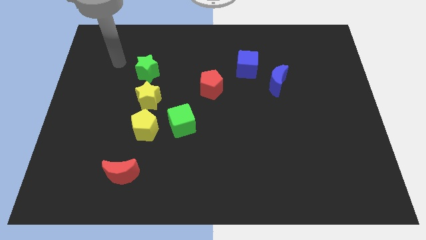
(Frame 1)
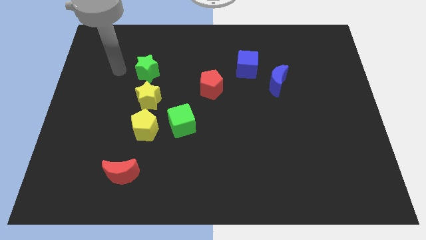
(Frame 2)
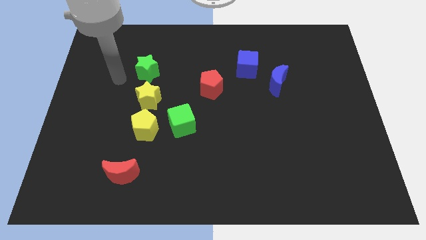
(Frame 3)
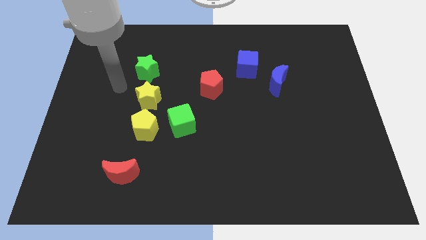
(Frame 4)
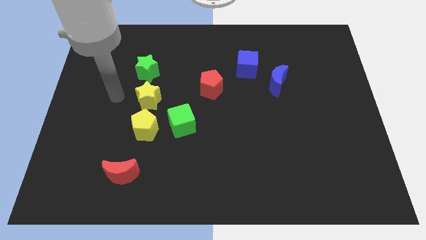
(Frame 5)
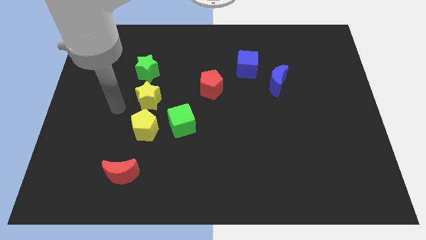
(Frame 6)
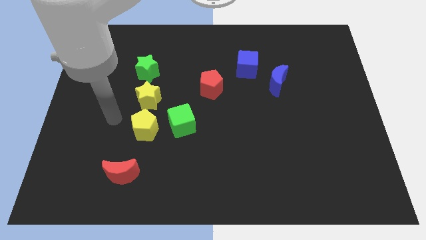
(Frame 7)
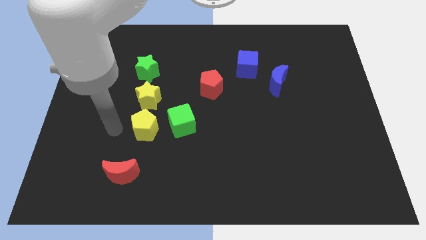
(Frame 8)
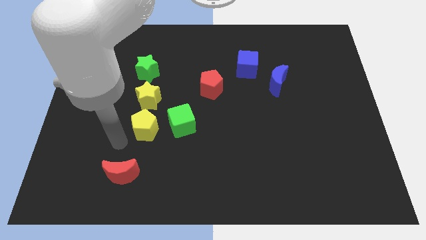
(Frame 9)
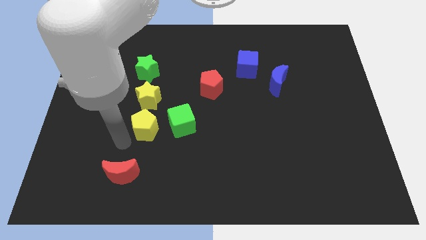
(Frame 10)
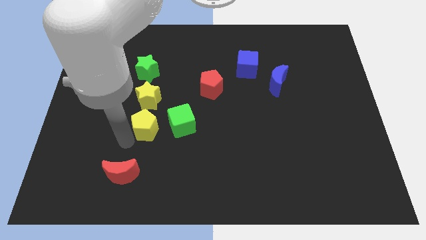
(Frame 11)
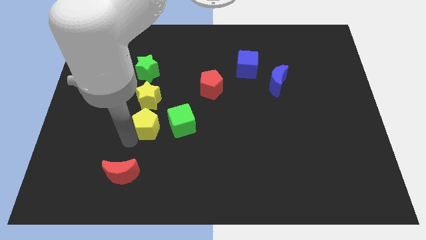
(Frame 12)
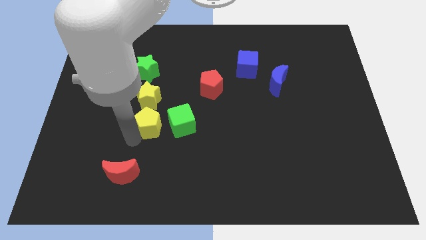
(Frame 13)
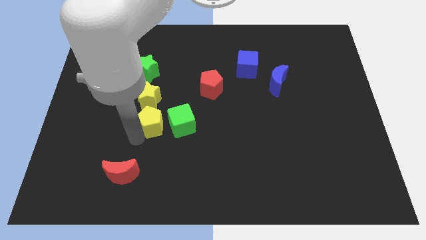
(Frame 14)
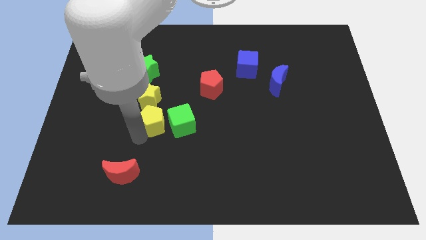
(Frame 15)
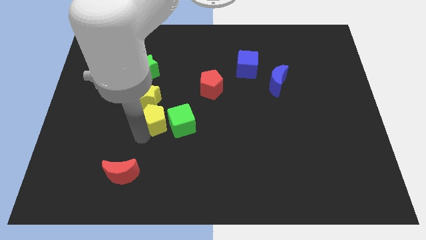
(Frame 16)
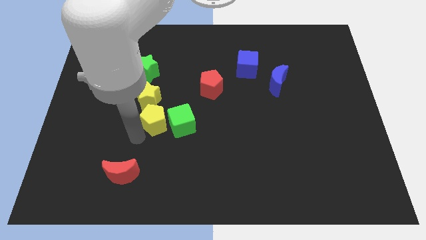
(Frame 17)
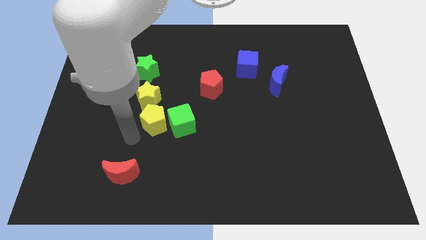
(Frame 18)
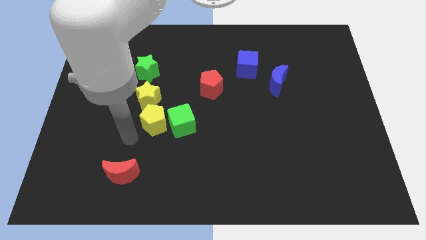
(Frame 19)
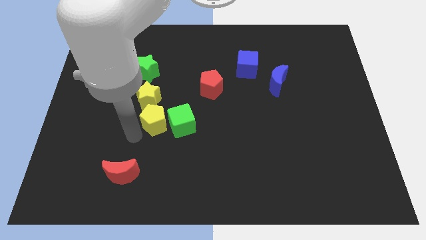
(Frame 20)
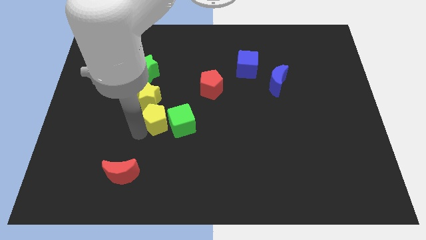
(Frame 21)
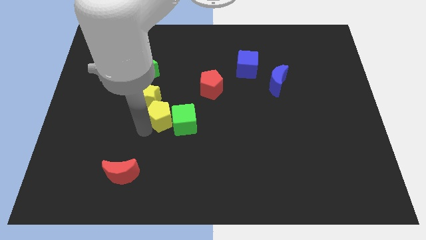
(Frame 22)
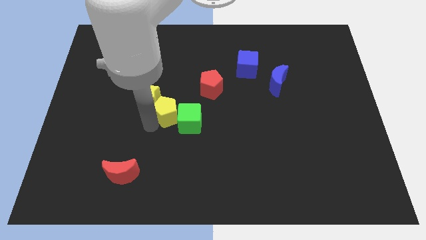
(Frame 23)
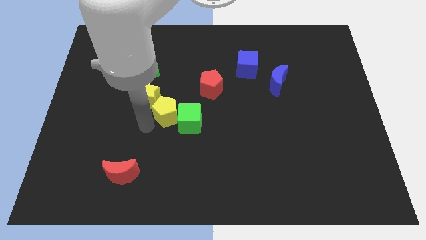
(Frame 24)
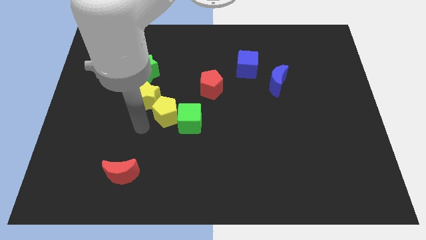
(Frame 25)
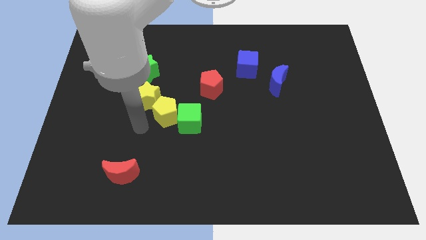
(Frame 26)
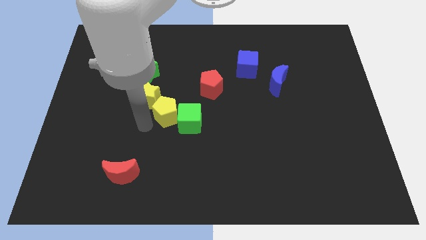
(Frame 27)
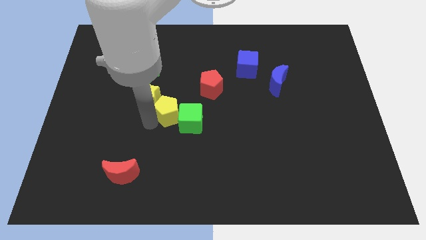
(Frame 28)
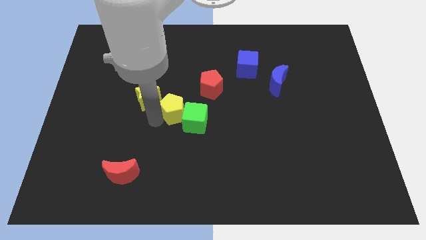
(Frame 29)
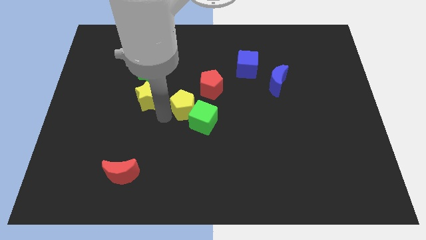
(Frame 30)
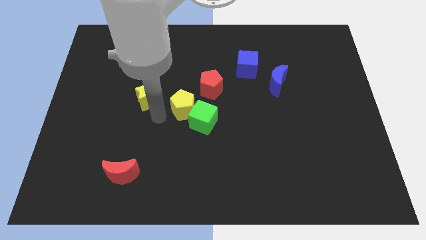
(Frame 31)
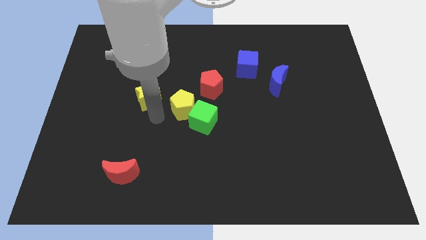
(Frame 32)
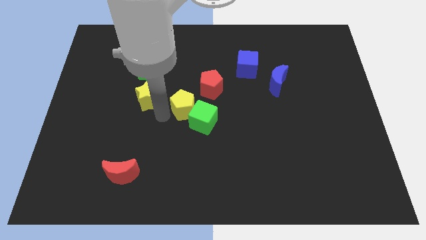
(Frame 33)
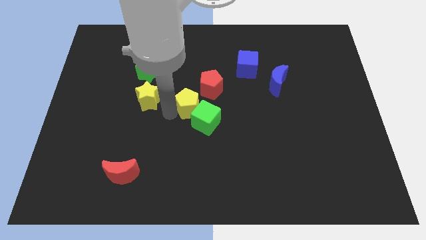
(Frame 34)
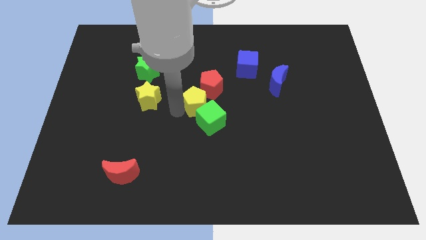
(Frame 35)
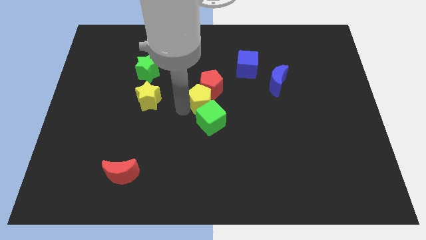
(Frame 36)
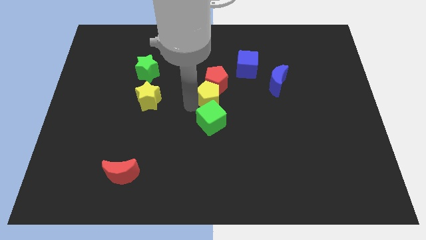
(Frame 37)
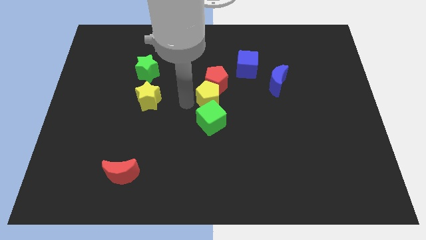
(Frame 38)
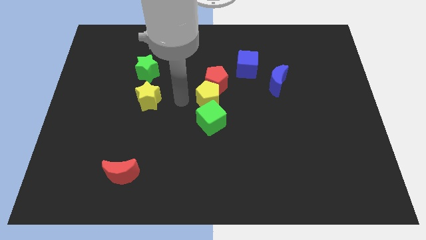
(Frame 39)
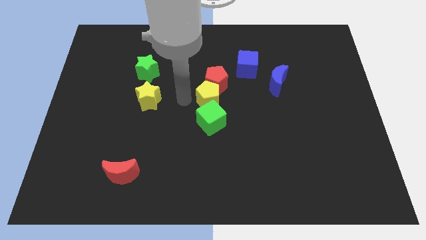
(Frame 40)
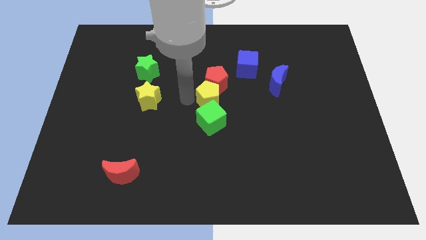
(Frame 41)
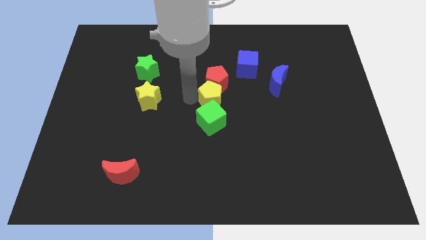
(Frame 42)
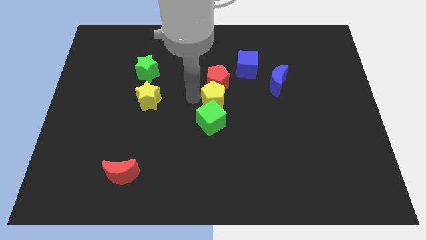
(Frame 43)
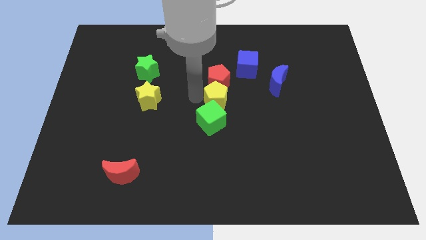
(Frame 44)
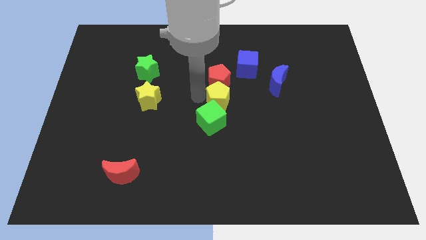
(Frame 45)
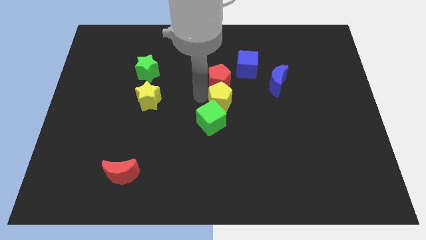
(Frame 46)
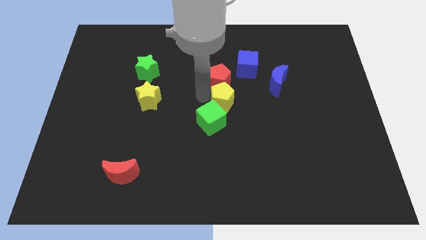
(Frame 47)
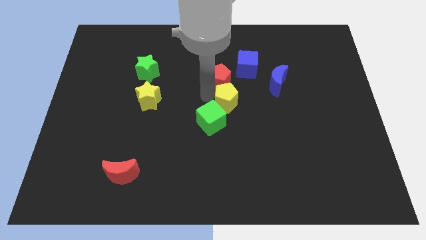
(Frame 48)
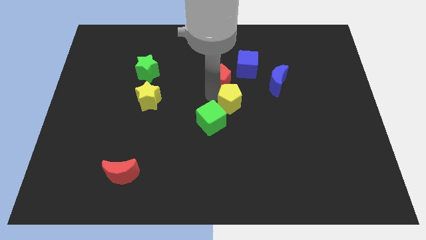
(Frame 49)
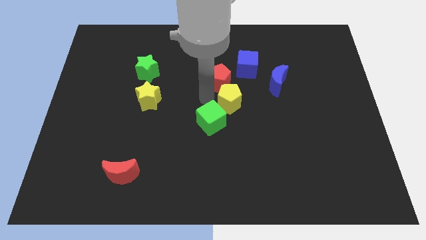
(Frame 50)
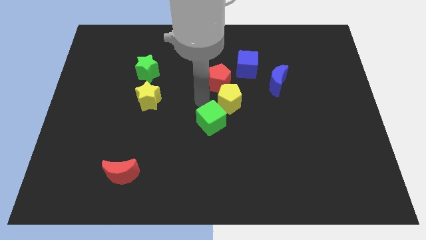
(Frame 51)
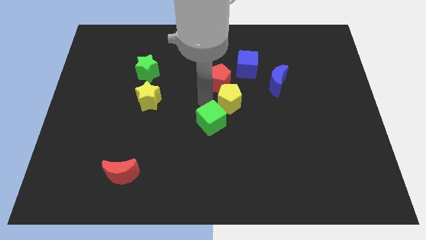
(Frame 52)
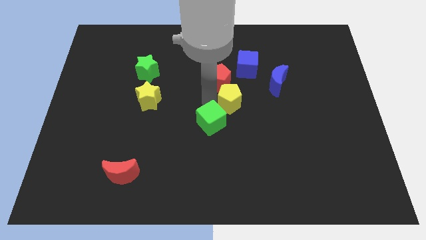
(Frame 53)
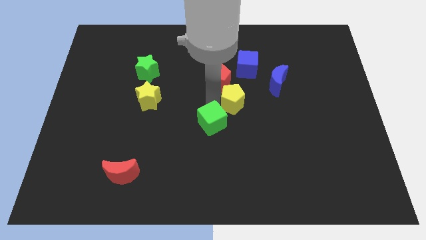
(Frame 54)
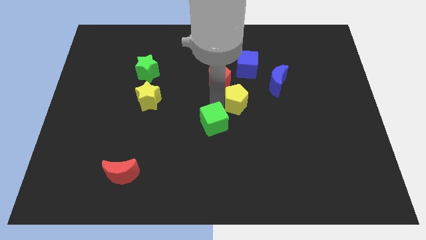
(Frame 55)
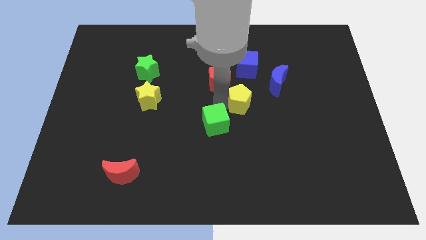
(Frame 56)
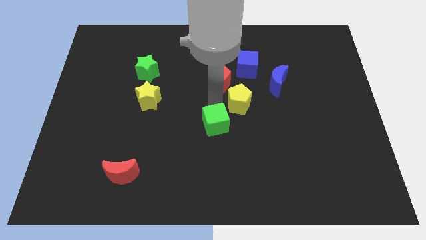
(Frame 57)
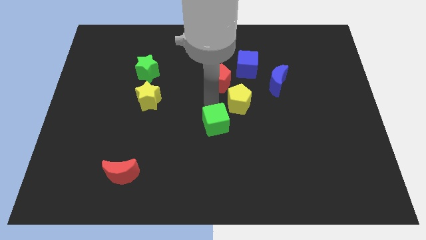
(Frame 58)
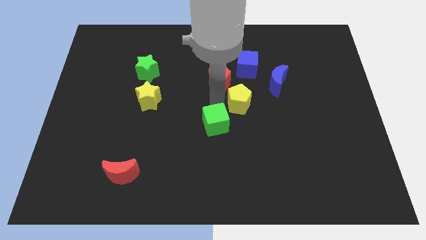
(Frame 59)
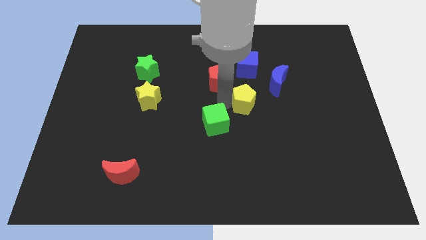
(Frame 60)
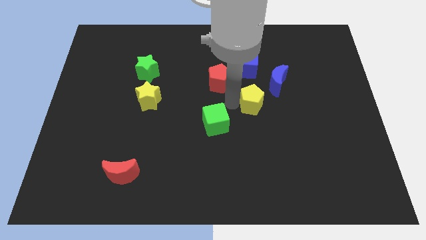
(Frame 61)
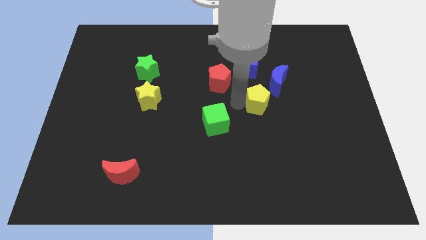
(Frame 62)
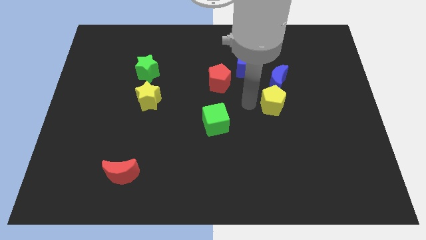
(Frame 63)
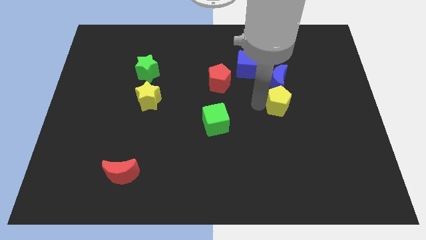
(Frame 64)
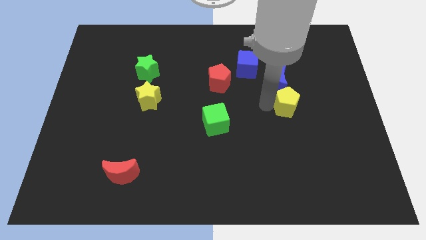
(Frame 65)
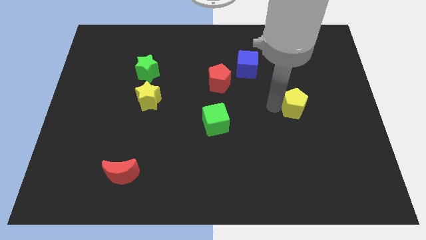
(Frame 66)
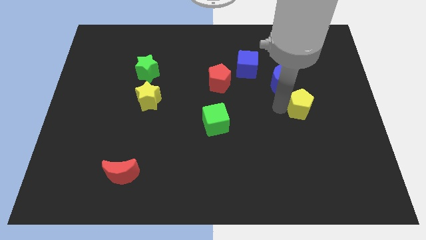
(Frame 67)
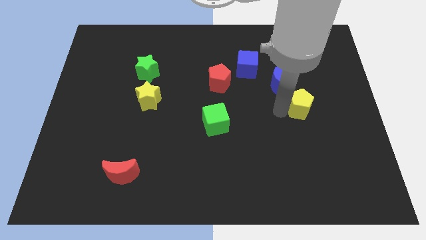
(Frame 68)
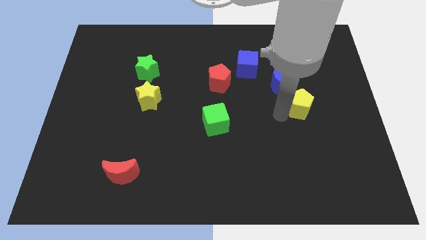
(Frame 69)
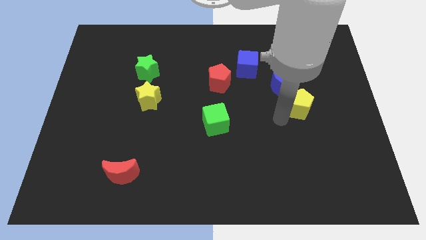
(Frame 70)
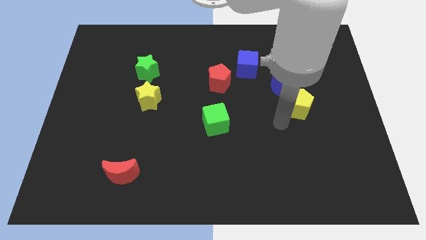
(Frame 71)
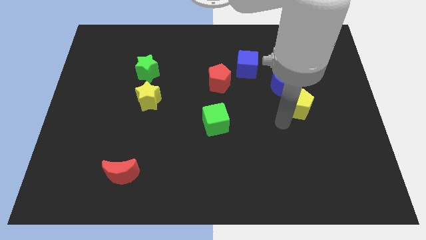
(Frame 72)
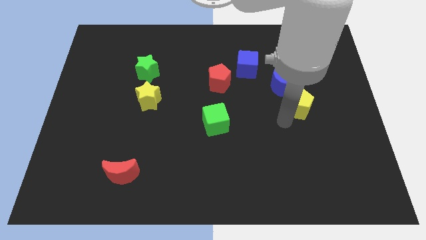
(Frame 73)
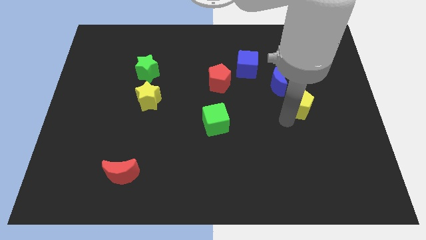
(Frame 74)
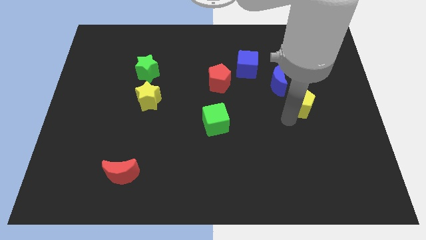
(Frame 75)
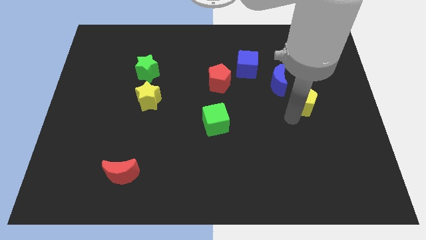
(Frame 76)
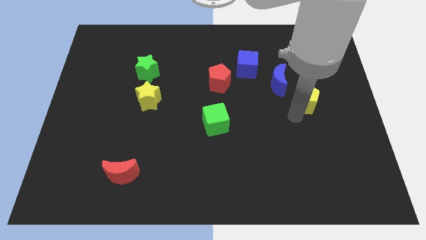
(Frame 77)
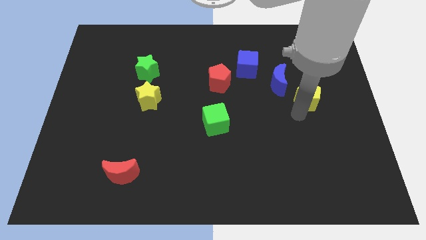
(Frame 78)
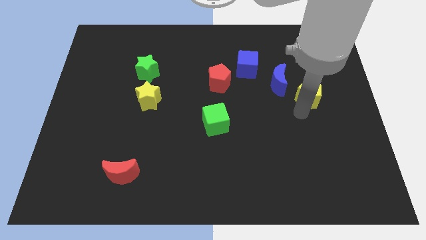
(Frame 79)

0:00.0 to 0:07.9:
slide the yellow pentagon just right of the blue moon
